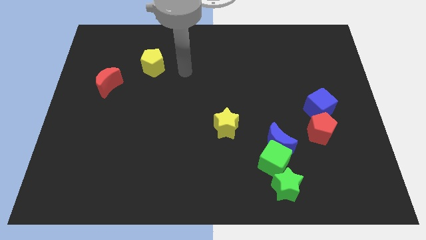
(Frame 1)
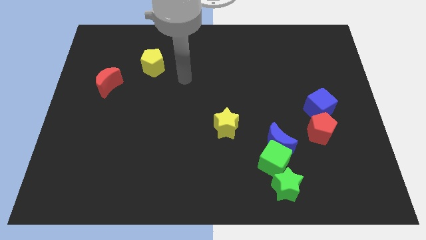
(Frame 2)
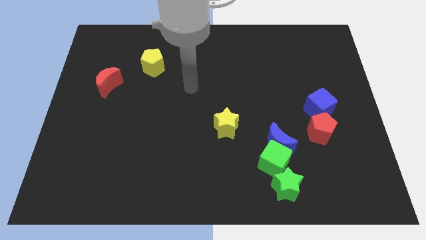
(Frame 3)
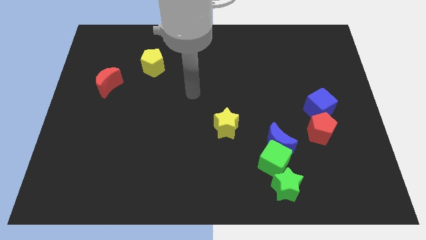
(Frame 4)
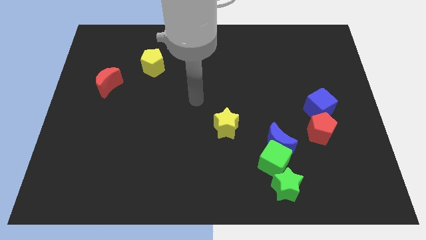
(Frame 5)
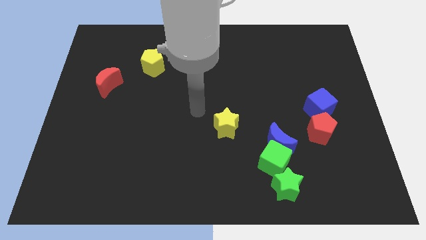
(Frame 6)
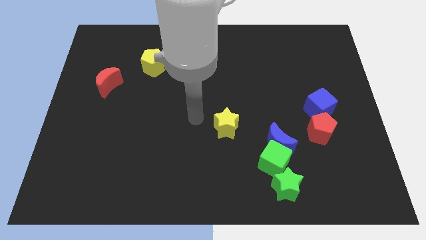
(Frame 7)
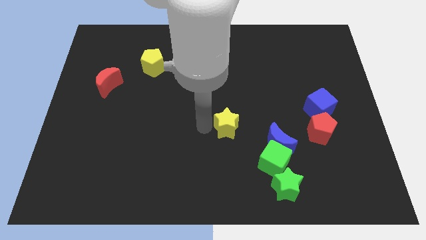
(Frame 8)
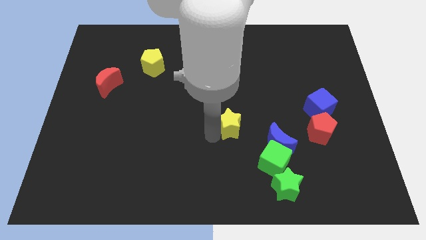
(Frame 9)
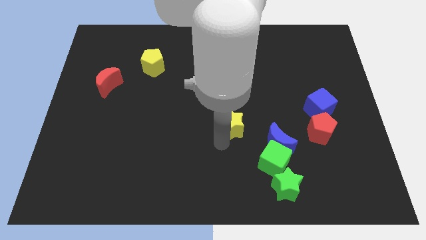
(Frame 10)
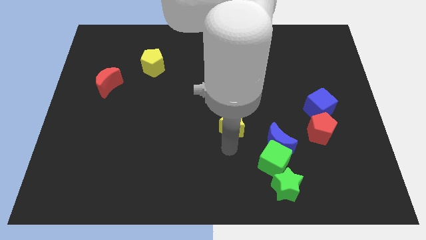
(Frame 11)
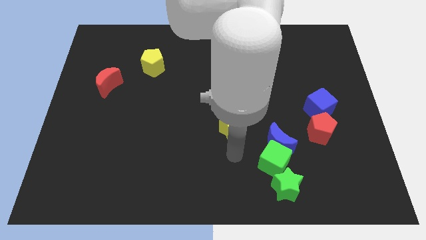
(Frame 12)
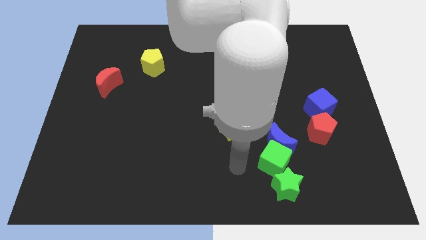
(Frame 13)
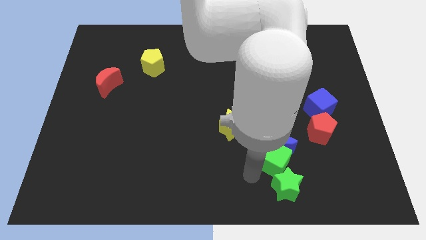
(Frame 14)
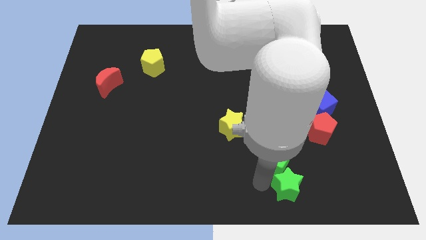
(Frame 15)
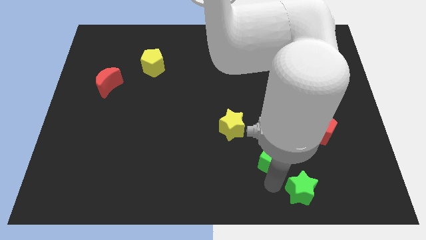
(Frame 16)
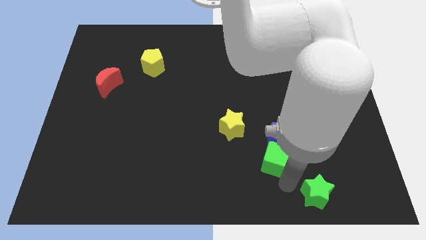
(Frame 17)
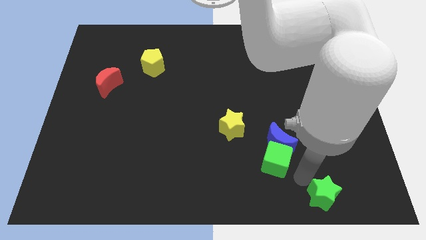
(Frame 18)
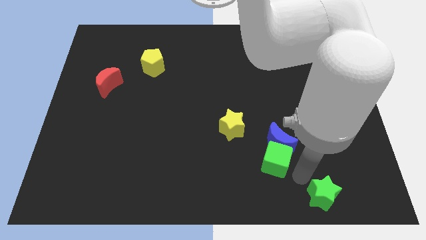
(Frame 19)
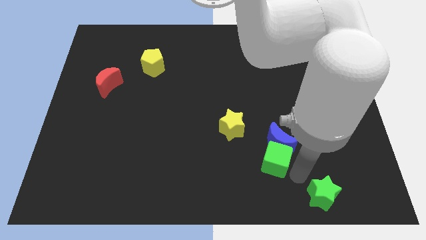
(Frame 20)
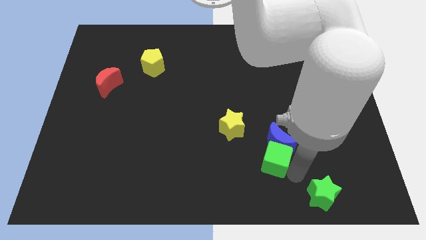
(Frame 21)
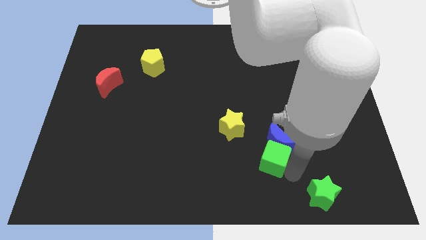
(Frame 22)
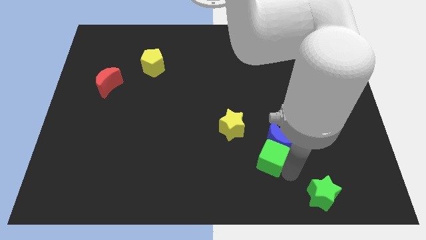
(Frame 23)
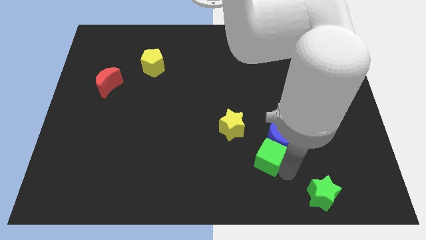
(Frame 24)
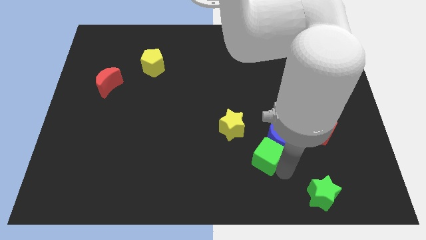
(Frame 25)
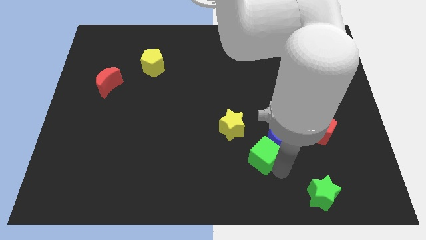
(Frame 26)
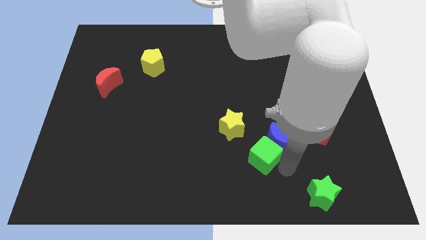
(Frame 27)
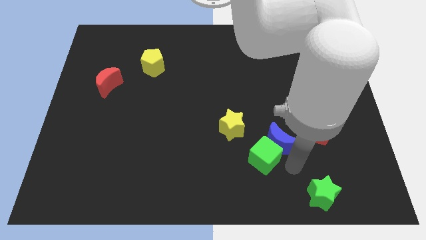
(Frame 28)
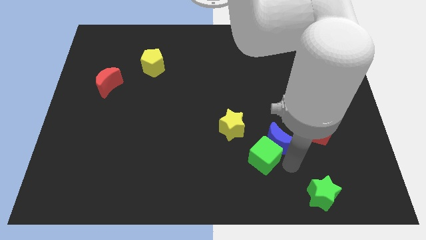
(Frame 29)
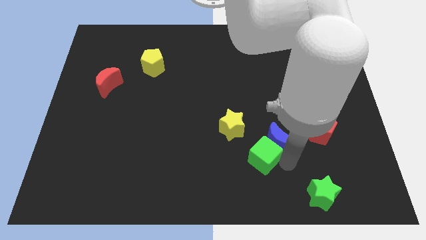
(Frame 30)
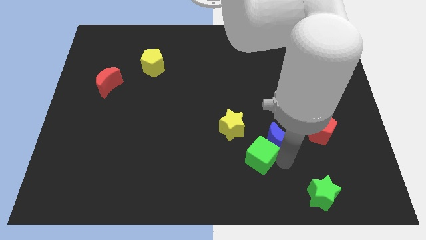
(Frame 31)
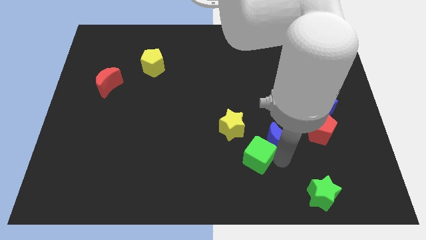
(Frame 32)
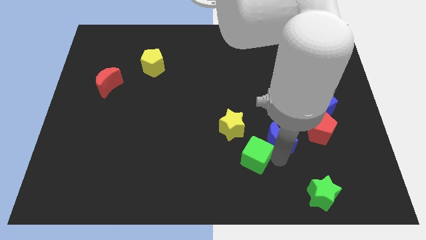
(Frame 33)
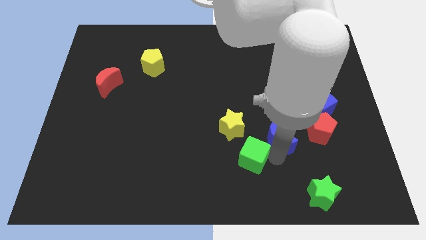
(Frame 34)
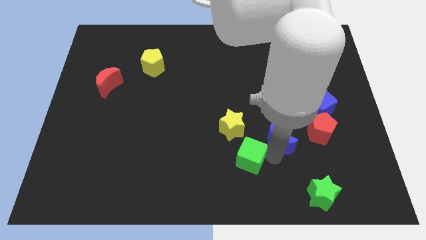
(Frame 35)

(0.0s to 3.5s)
pull the green cube apart from the blue moon and green star

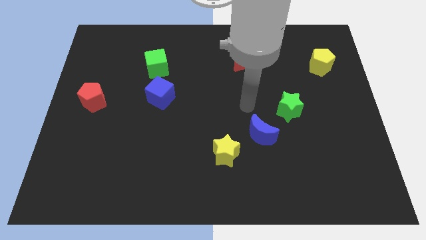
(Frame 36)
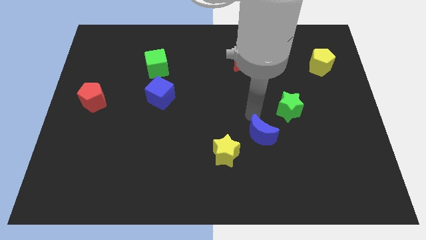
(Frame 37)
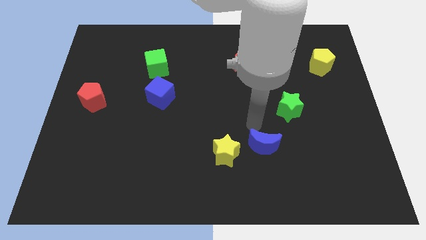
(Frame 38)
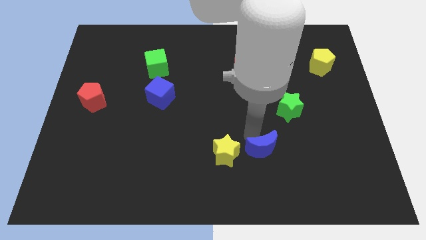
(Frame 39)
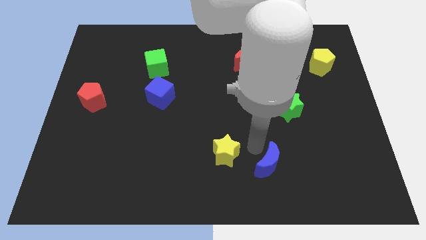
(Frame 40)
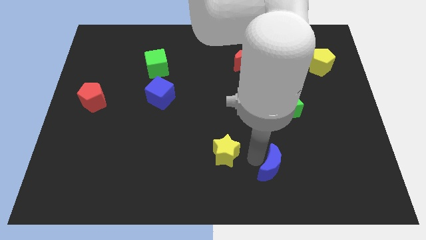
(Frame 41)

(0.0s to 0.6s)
move the yellow star away from the blue moon

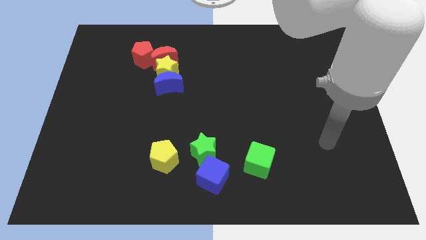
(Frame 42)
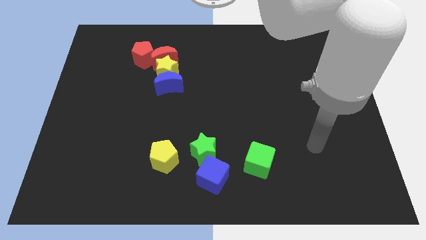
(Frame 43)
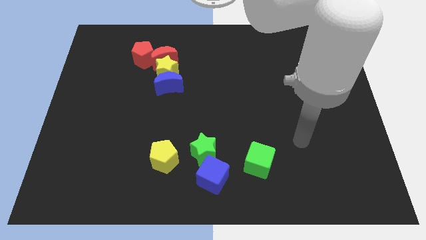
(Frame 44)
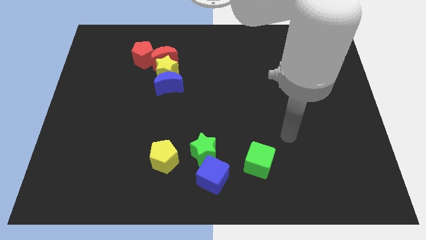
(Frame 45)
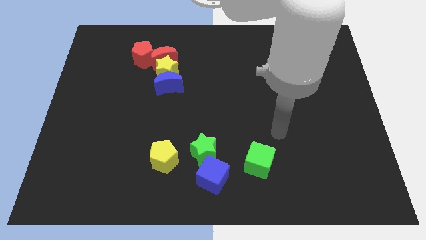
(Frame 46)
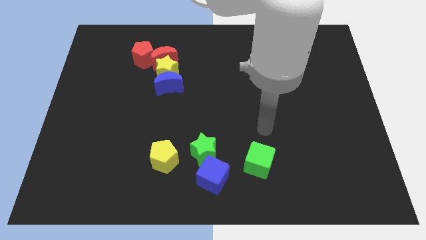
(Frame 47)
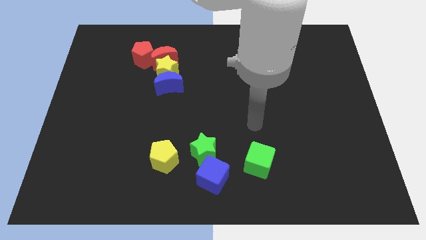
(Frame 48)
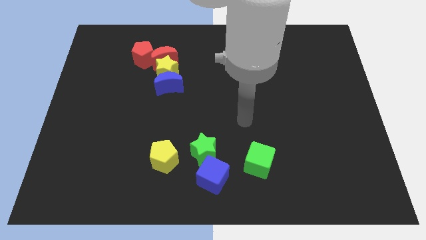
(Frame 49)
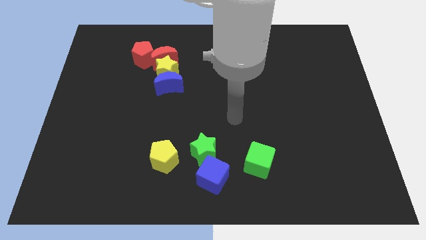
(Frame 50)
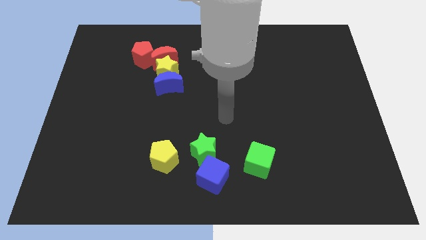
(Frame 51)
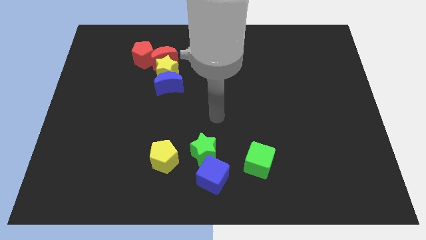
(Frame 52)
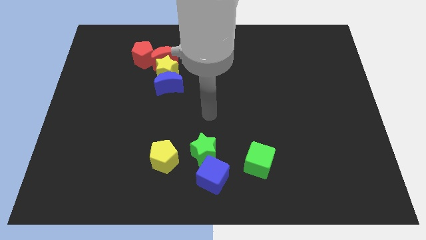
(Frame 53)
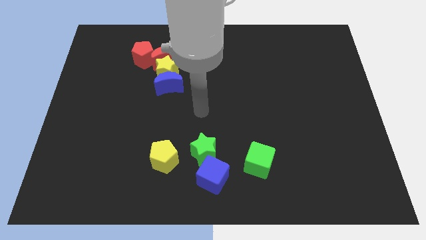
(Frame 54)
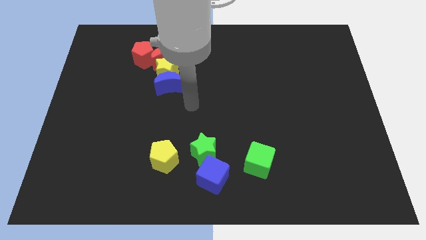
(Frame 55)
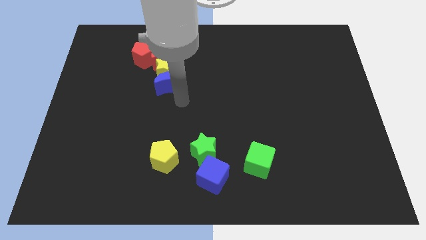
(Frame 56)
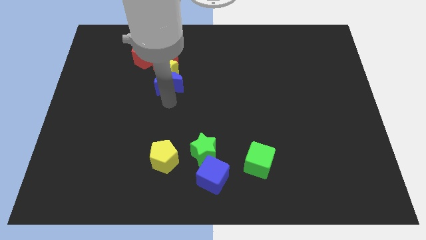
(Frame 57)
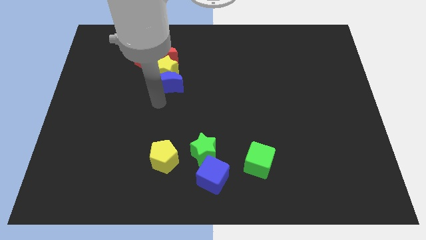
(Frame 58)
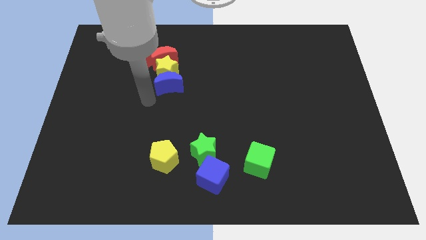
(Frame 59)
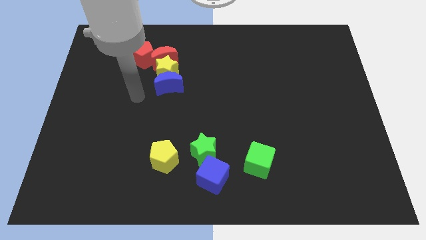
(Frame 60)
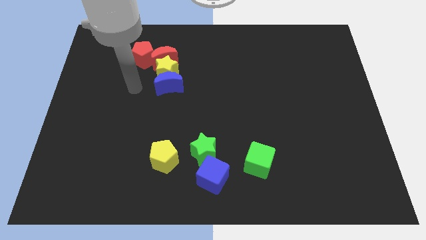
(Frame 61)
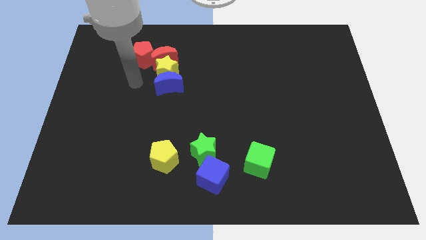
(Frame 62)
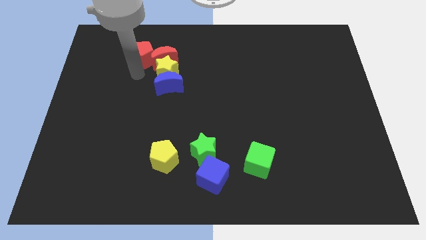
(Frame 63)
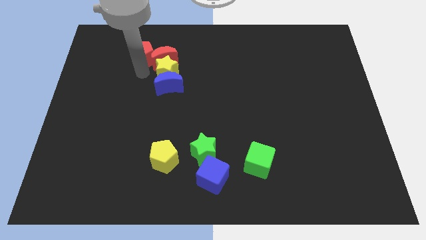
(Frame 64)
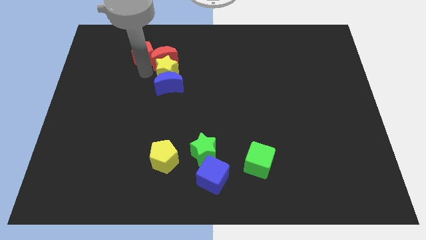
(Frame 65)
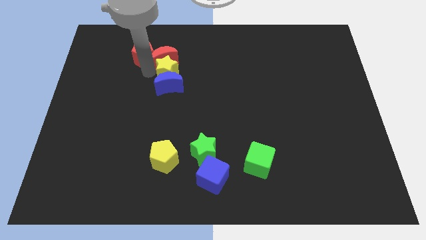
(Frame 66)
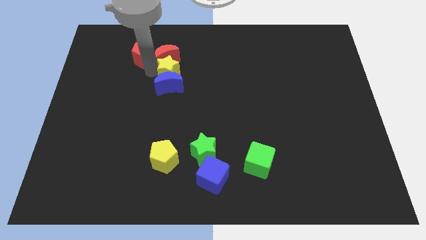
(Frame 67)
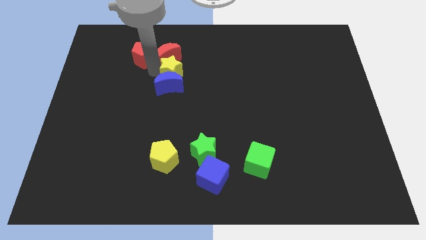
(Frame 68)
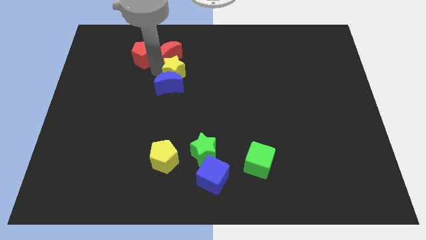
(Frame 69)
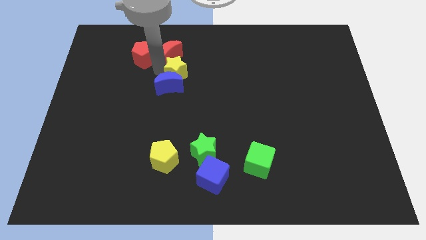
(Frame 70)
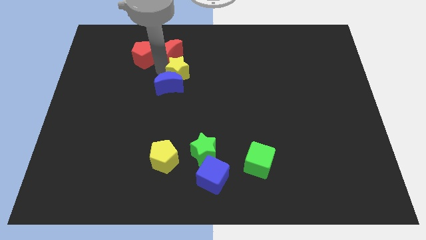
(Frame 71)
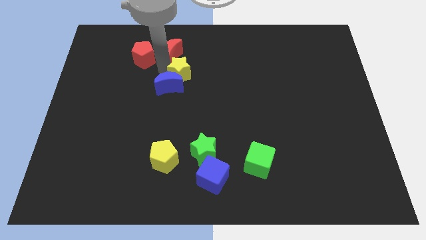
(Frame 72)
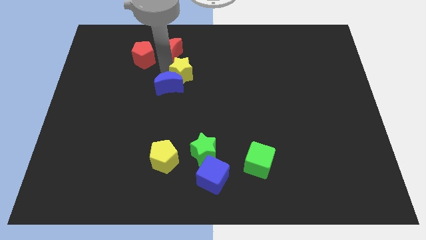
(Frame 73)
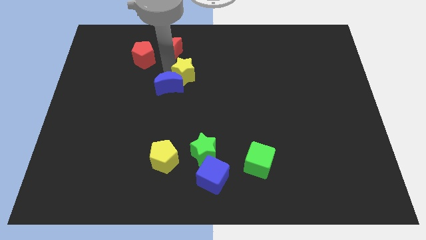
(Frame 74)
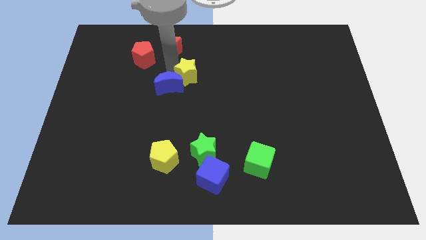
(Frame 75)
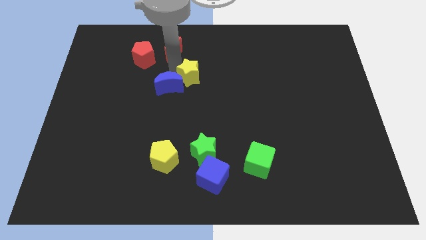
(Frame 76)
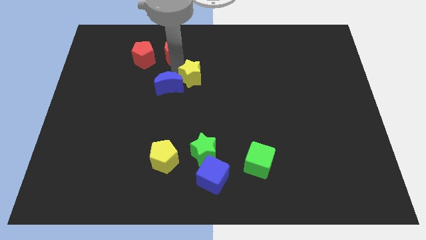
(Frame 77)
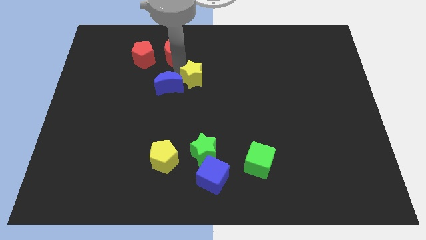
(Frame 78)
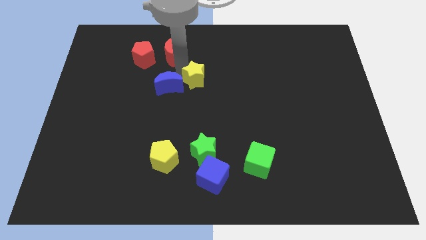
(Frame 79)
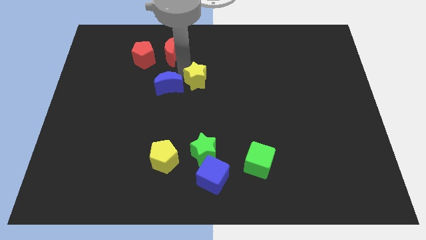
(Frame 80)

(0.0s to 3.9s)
pull the yellow star apart from the blue moon, red moon, and red pentagon

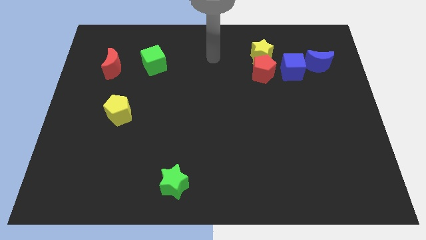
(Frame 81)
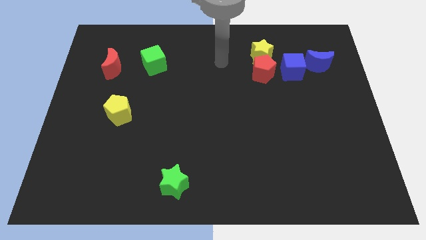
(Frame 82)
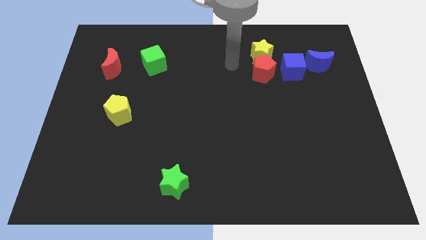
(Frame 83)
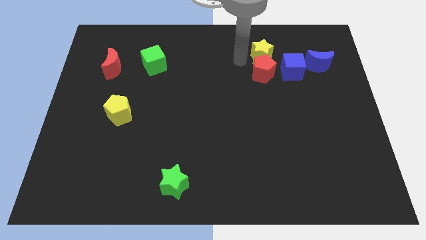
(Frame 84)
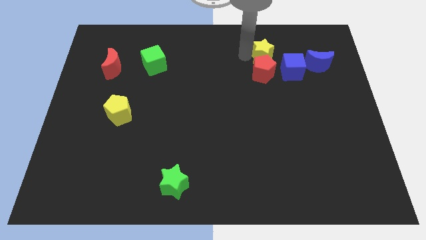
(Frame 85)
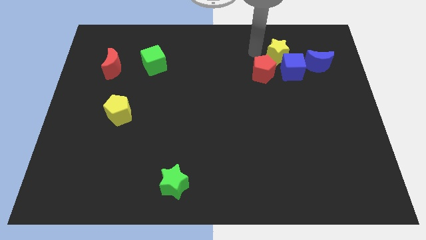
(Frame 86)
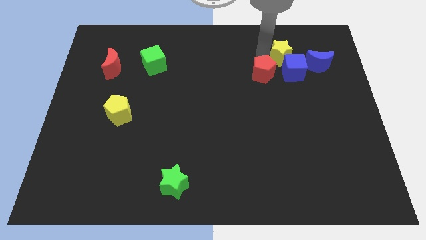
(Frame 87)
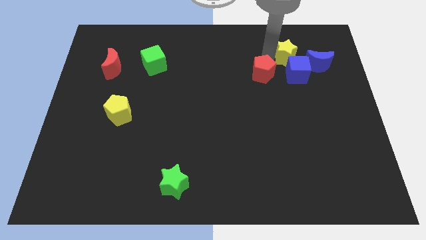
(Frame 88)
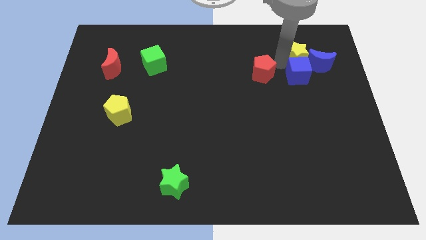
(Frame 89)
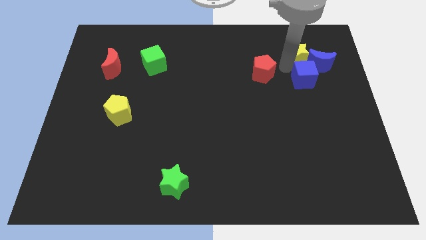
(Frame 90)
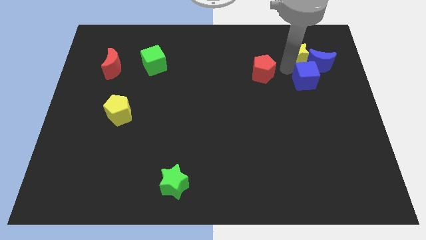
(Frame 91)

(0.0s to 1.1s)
separate the red pentagon from the yellow star and blue cube

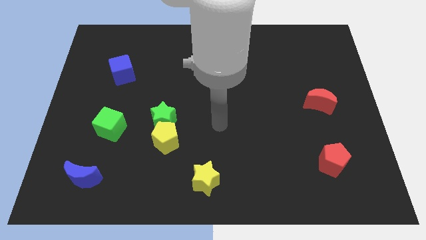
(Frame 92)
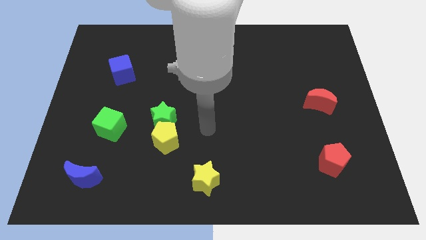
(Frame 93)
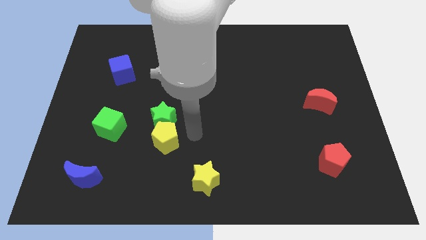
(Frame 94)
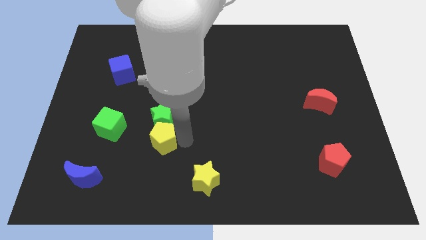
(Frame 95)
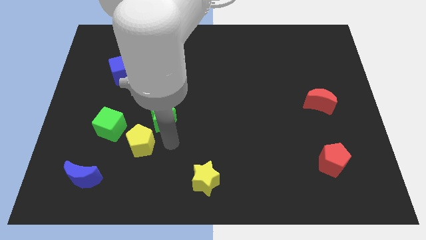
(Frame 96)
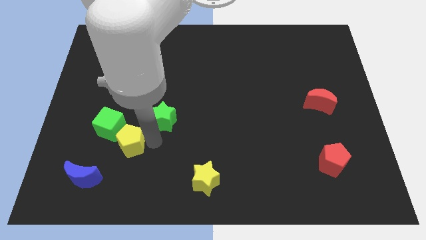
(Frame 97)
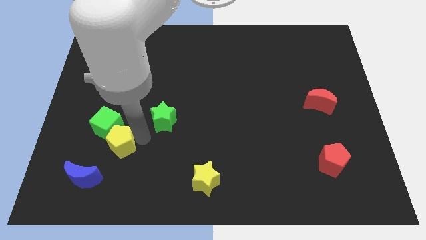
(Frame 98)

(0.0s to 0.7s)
move the green star away from the yellow pentagon
